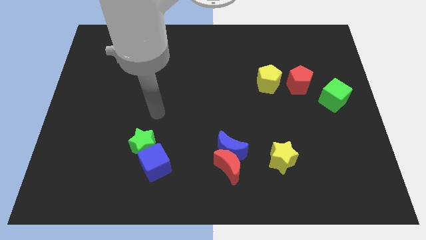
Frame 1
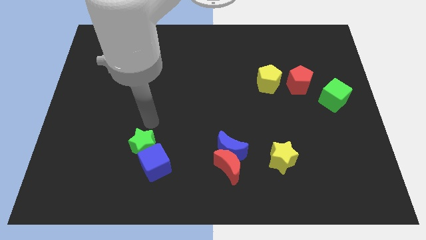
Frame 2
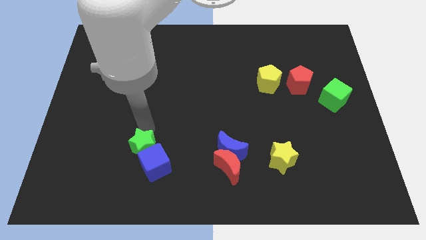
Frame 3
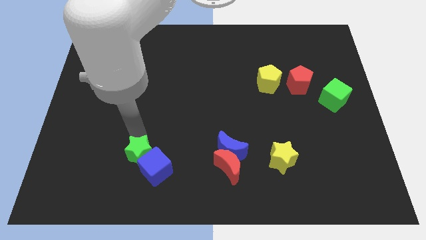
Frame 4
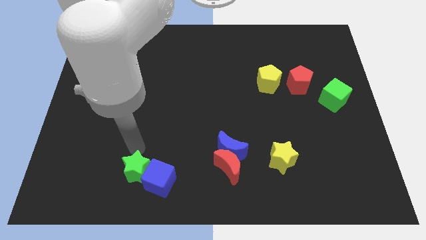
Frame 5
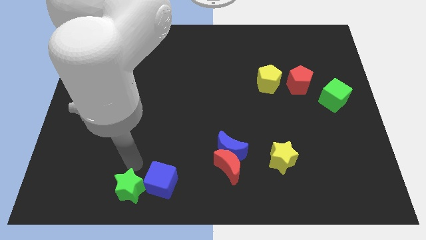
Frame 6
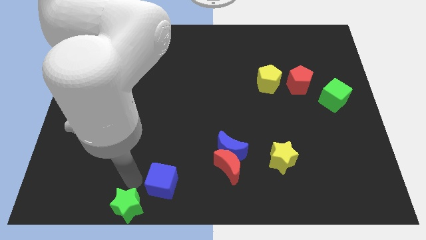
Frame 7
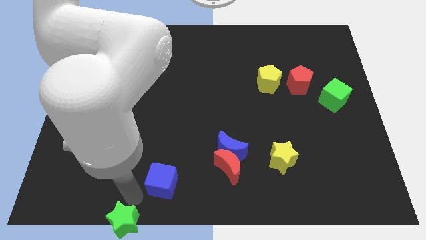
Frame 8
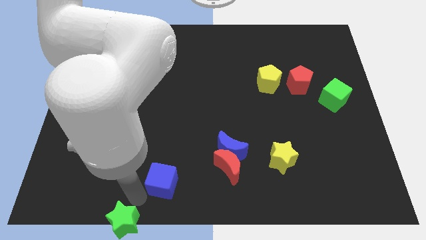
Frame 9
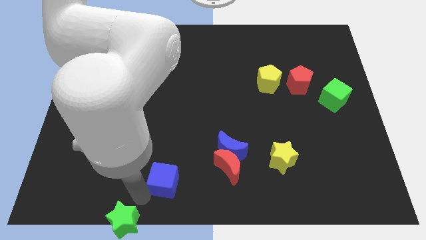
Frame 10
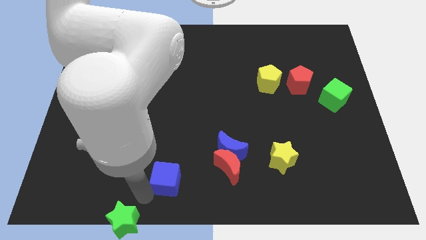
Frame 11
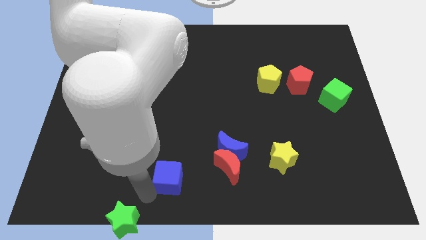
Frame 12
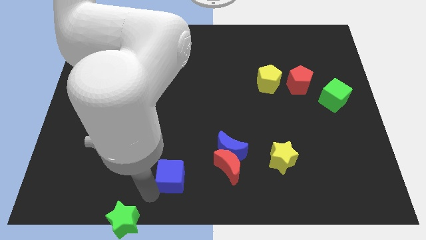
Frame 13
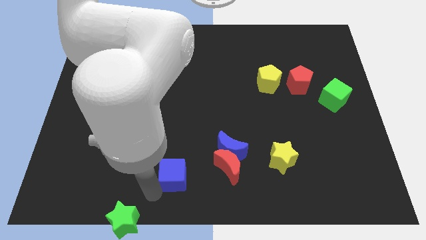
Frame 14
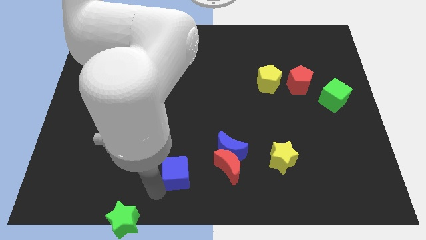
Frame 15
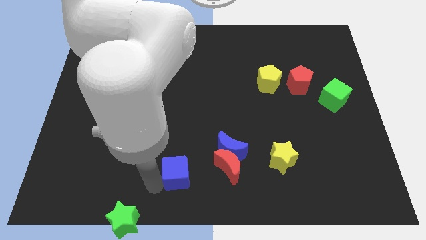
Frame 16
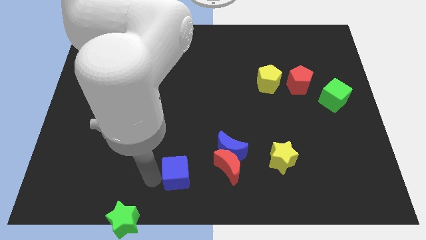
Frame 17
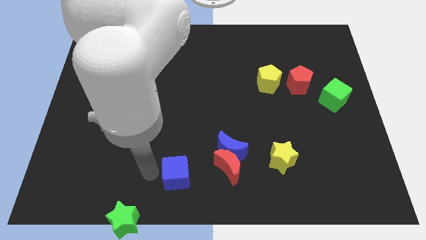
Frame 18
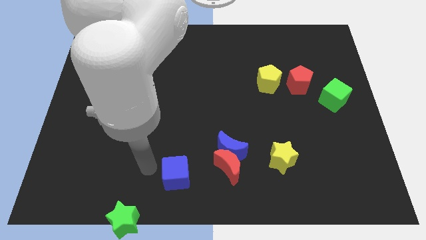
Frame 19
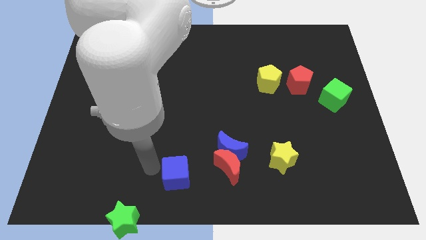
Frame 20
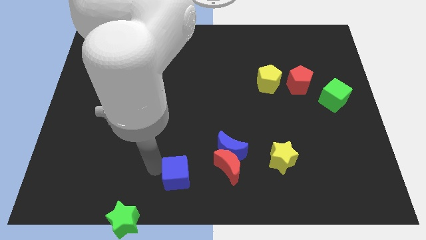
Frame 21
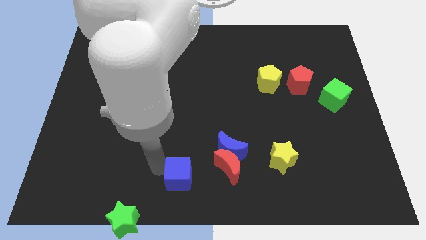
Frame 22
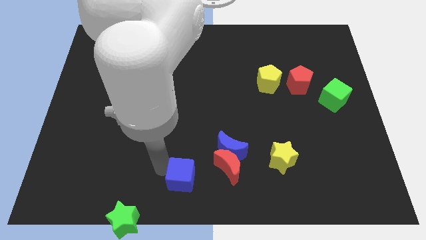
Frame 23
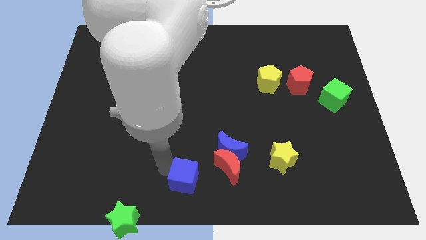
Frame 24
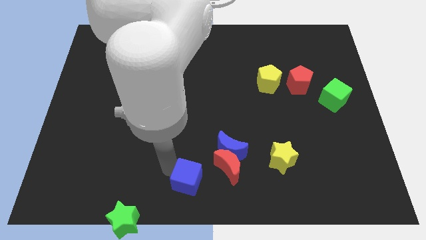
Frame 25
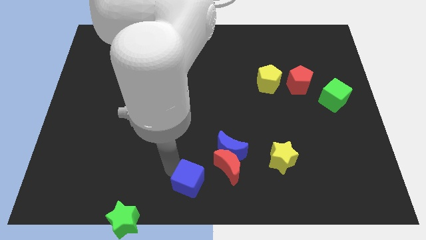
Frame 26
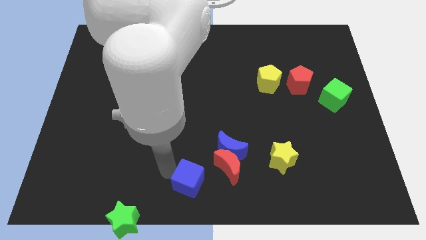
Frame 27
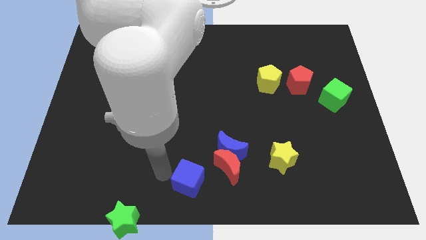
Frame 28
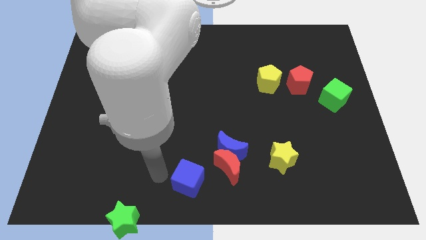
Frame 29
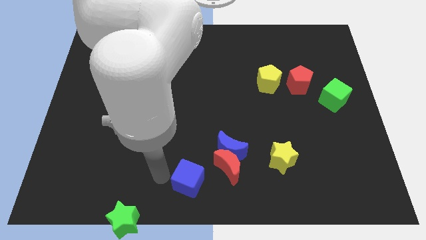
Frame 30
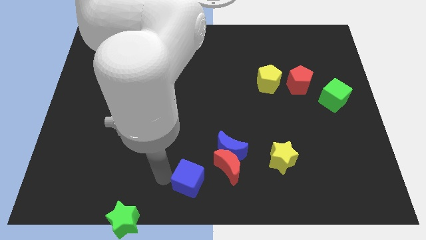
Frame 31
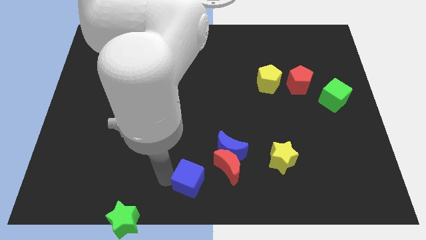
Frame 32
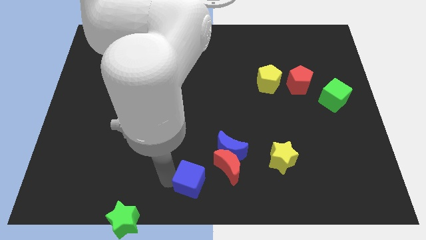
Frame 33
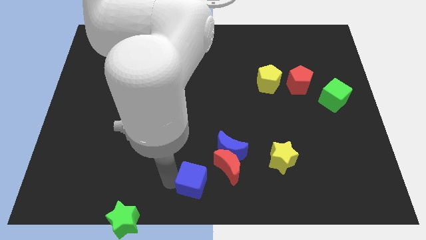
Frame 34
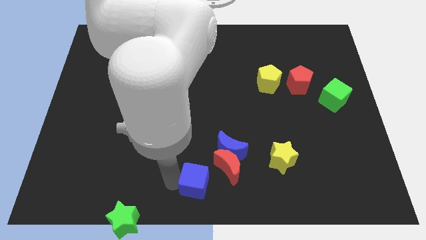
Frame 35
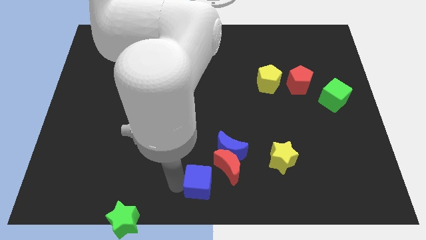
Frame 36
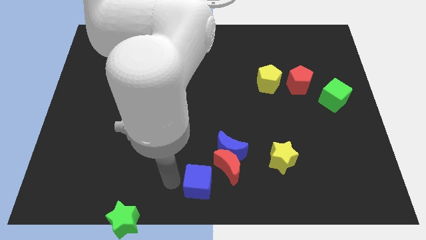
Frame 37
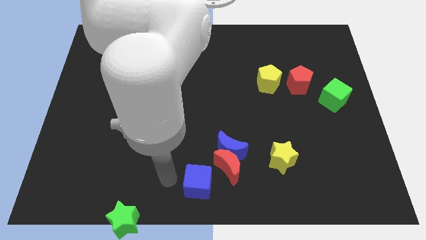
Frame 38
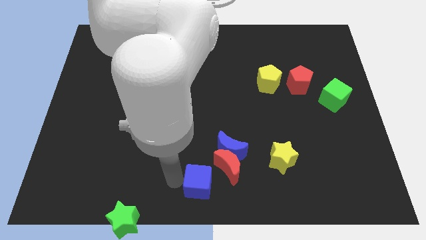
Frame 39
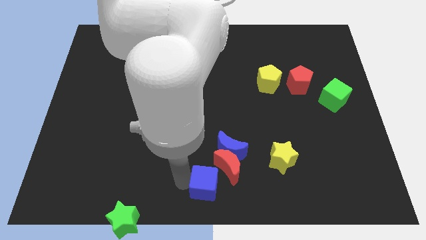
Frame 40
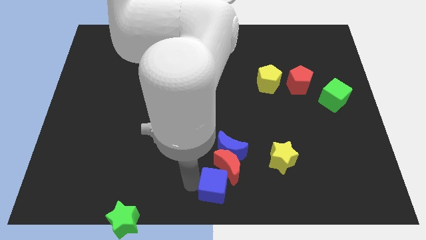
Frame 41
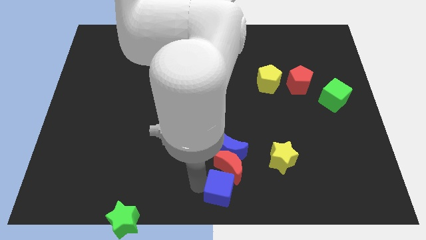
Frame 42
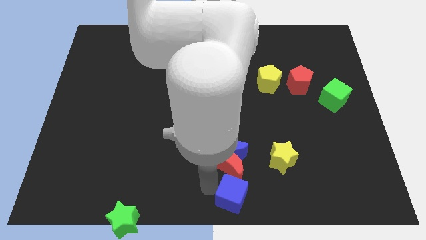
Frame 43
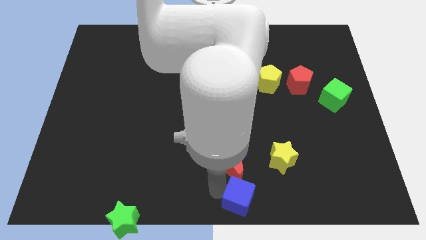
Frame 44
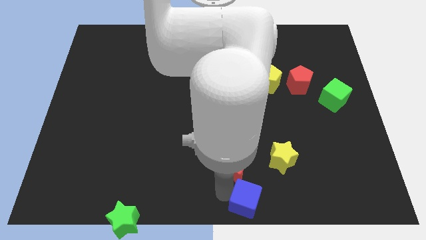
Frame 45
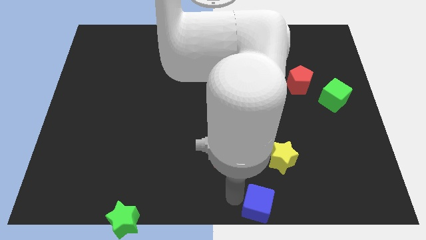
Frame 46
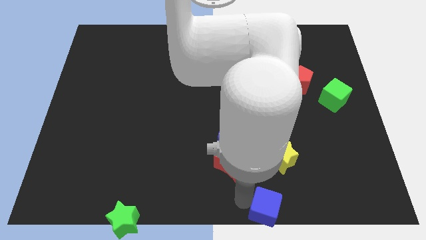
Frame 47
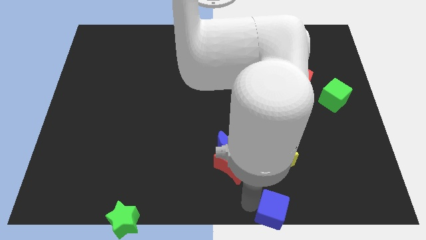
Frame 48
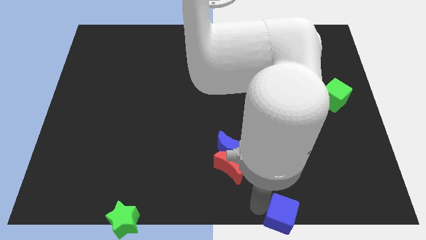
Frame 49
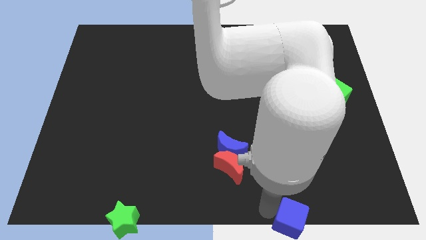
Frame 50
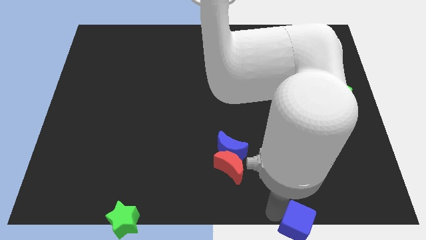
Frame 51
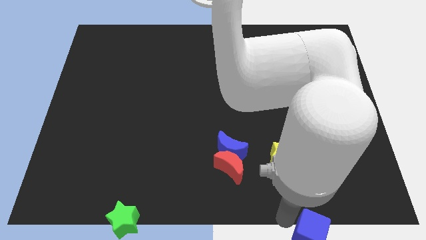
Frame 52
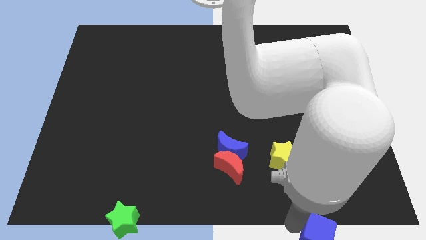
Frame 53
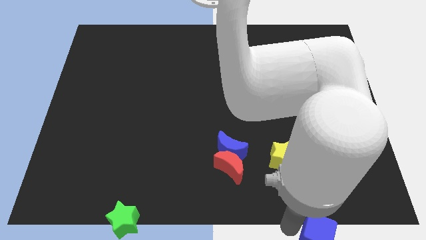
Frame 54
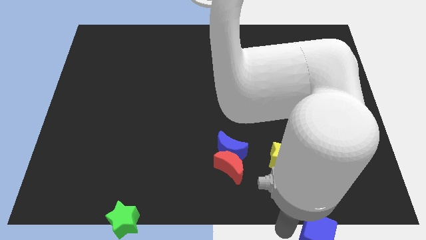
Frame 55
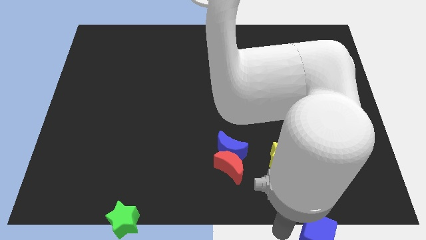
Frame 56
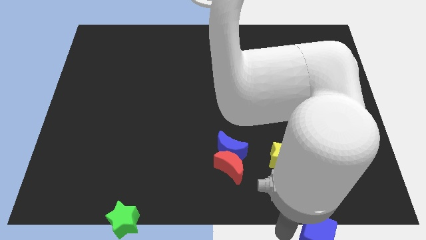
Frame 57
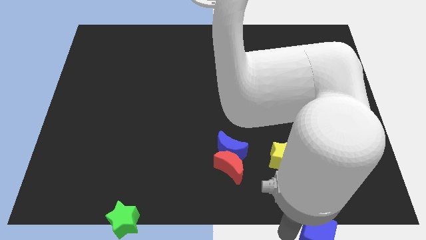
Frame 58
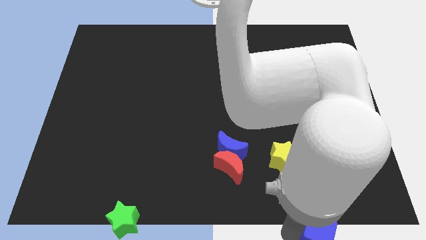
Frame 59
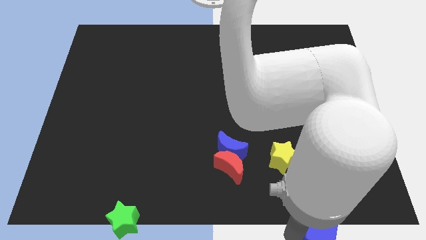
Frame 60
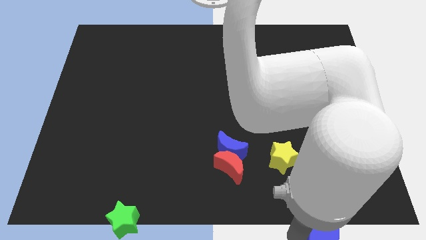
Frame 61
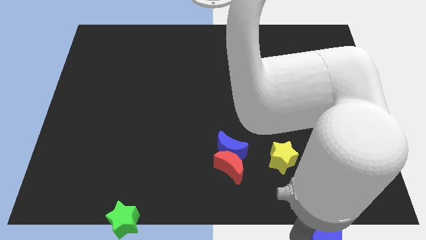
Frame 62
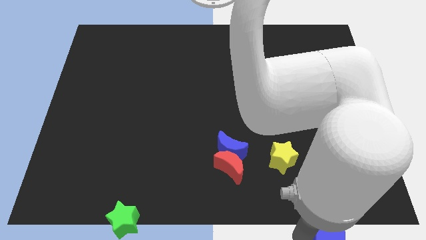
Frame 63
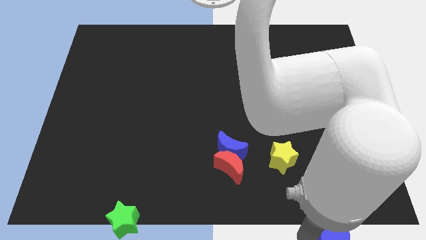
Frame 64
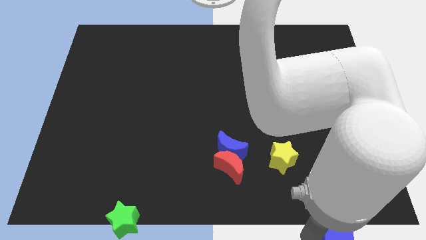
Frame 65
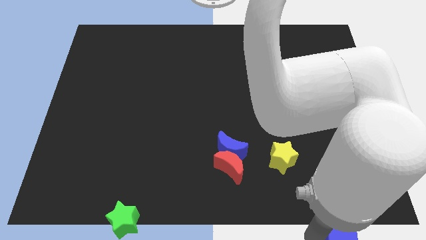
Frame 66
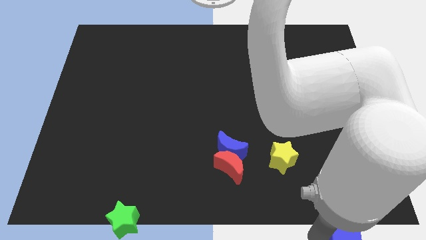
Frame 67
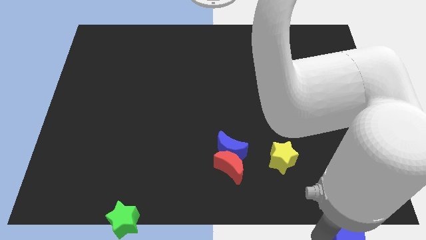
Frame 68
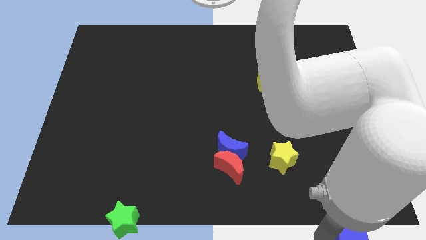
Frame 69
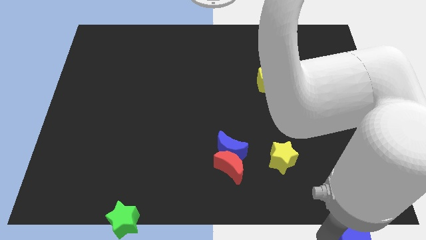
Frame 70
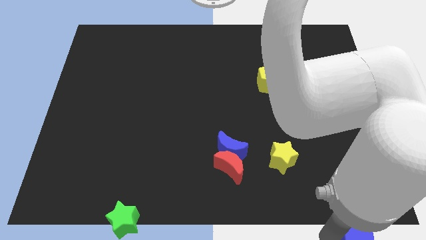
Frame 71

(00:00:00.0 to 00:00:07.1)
move the blue cube to the bottom right of the board
